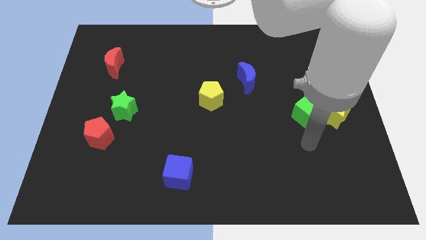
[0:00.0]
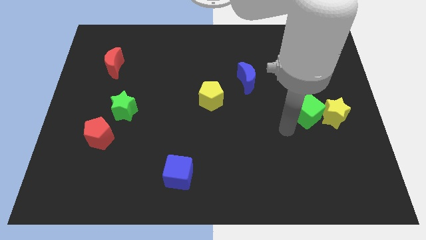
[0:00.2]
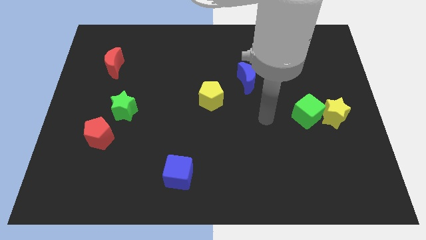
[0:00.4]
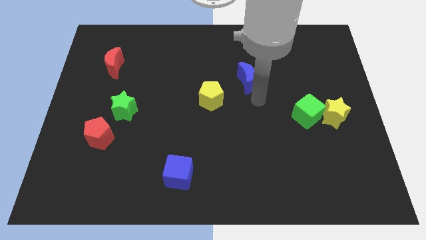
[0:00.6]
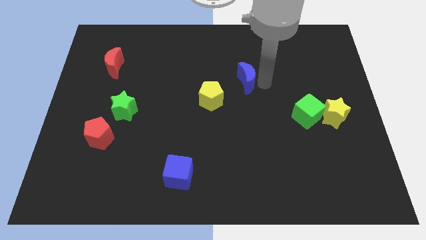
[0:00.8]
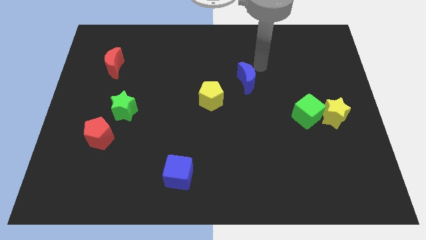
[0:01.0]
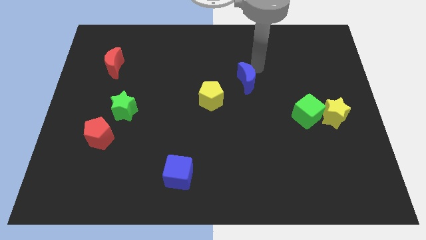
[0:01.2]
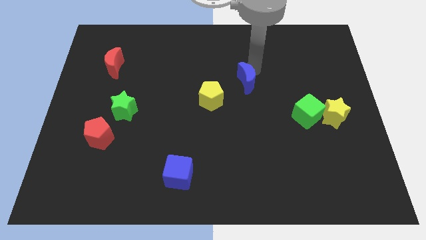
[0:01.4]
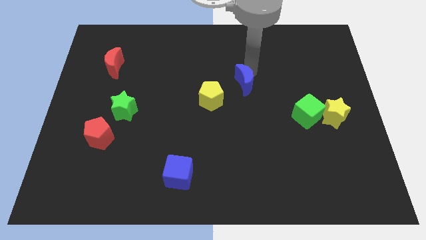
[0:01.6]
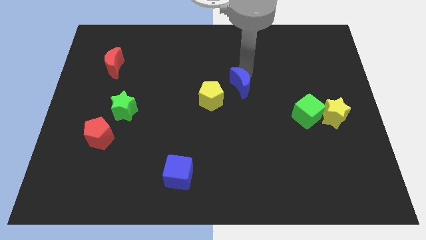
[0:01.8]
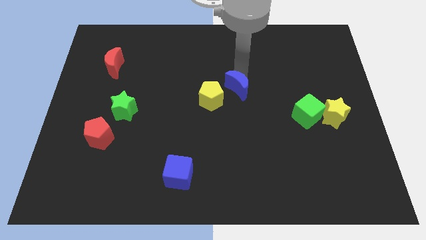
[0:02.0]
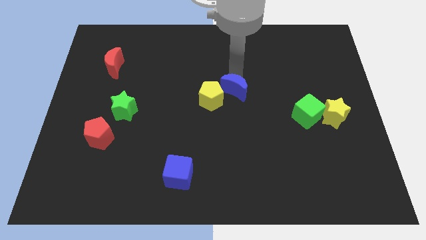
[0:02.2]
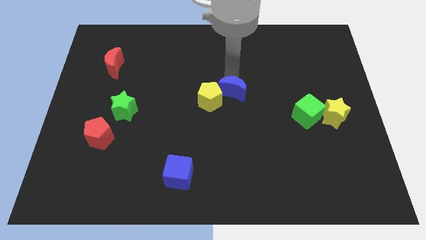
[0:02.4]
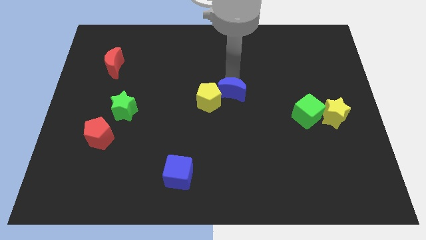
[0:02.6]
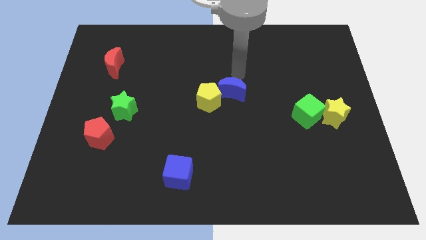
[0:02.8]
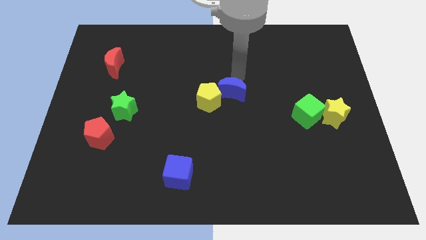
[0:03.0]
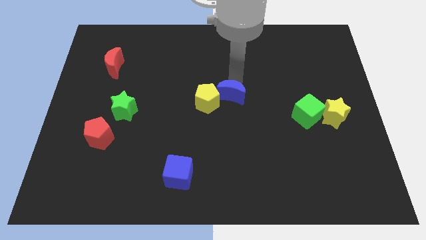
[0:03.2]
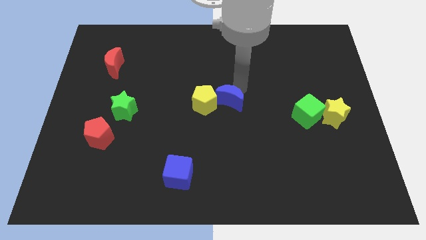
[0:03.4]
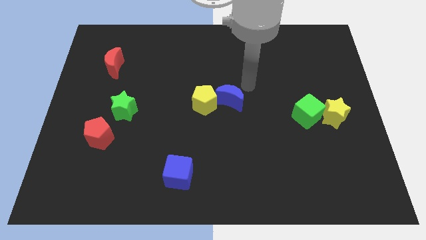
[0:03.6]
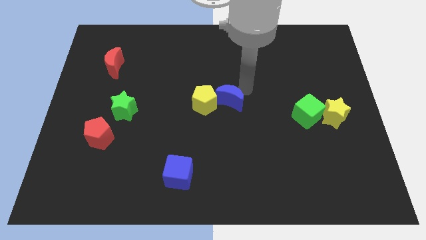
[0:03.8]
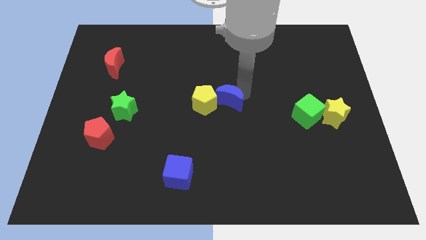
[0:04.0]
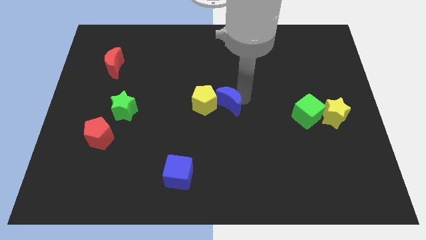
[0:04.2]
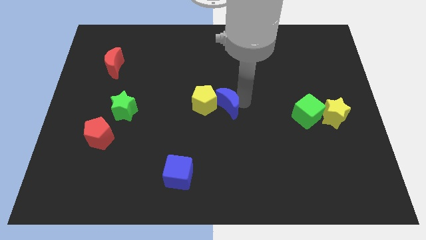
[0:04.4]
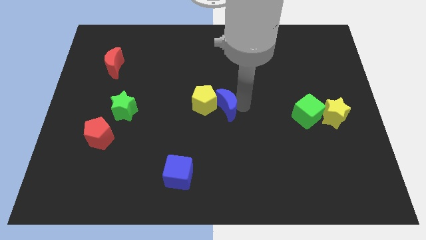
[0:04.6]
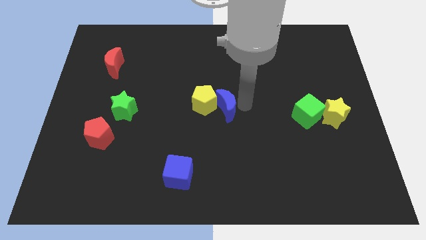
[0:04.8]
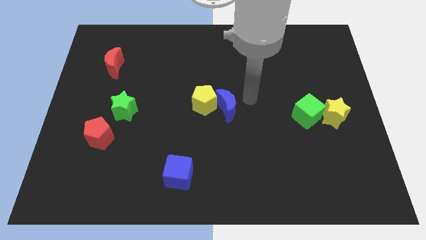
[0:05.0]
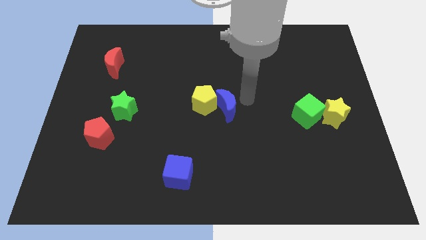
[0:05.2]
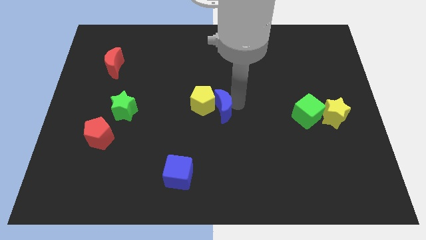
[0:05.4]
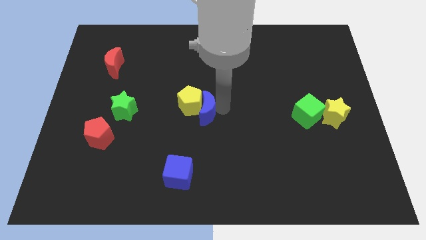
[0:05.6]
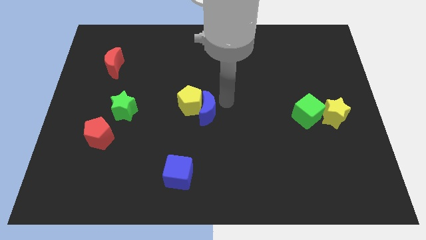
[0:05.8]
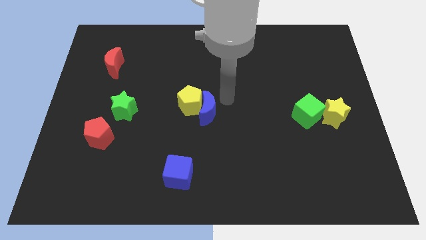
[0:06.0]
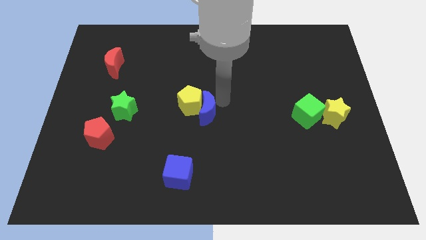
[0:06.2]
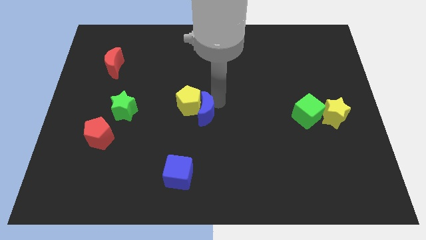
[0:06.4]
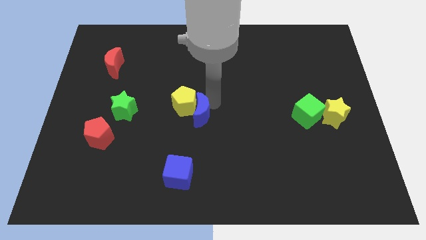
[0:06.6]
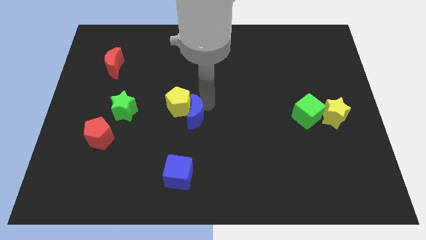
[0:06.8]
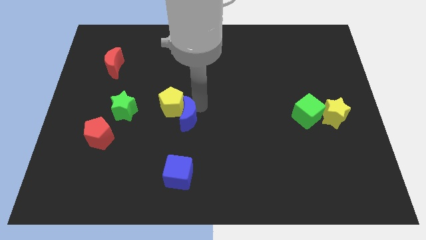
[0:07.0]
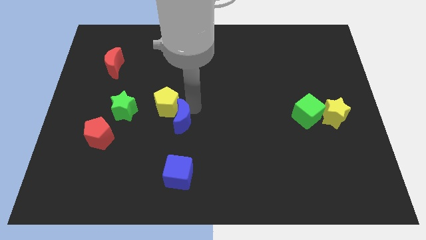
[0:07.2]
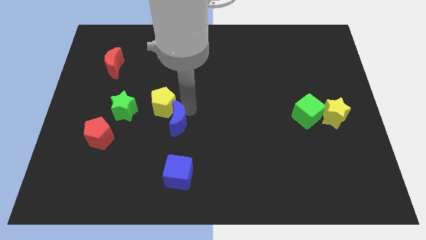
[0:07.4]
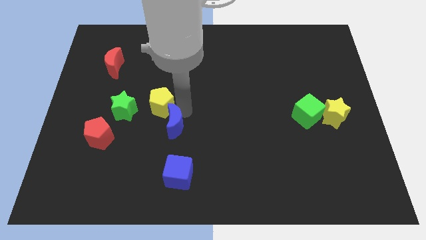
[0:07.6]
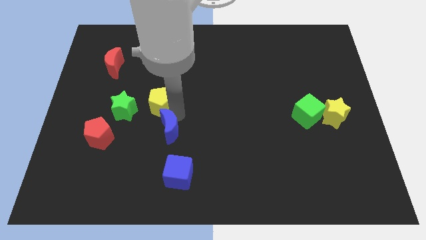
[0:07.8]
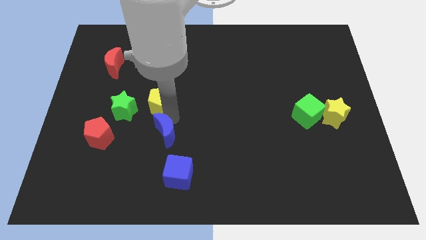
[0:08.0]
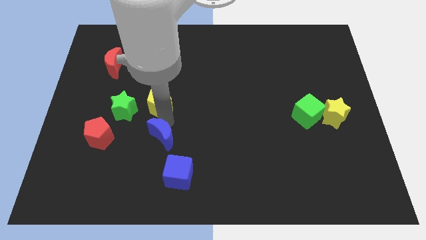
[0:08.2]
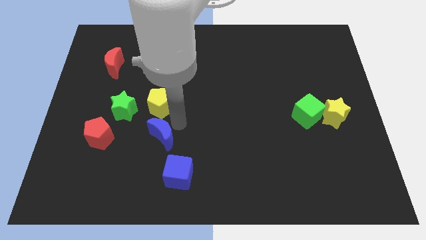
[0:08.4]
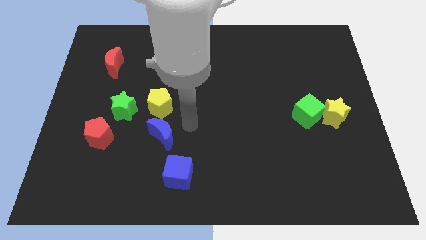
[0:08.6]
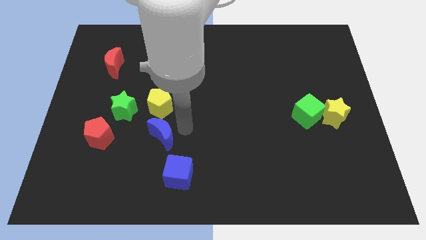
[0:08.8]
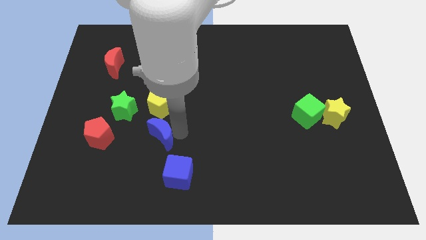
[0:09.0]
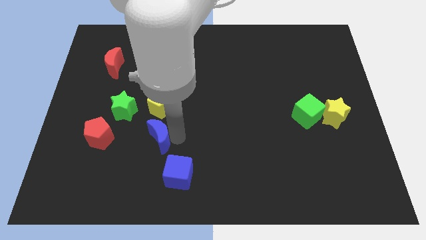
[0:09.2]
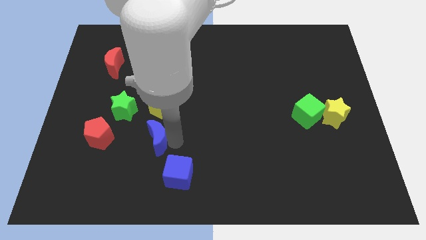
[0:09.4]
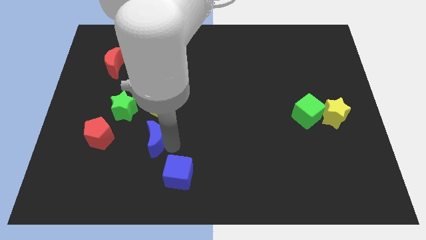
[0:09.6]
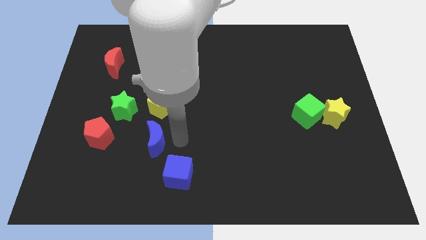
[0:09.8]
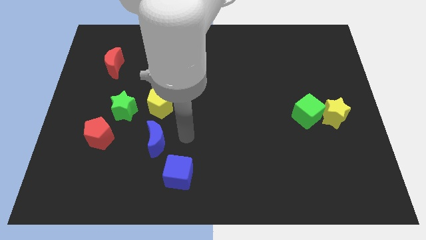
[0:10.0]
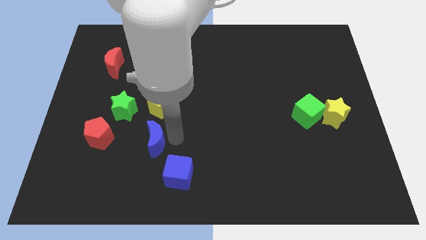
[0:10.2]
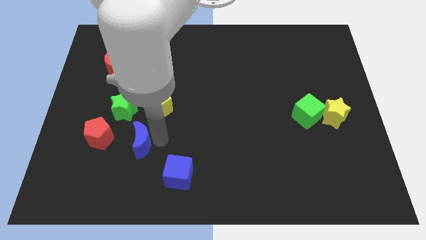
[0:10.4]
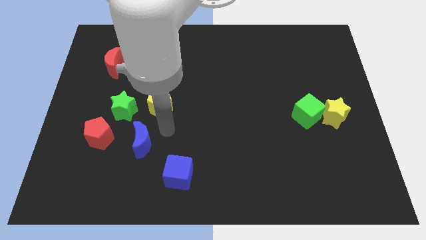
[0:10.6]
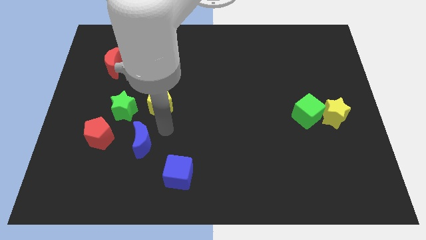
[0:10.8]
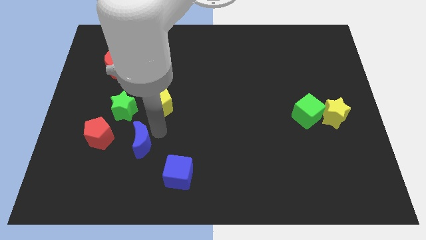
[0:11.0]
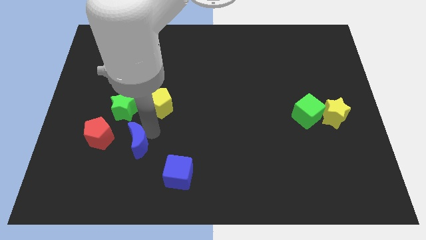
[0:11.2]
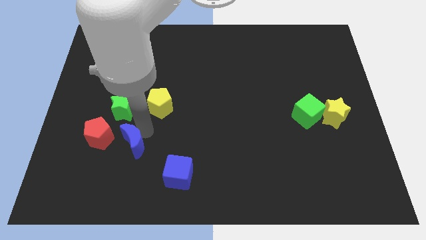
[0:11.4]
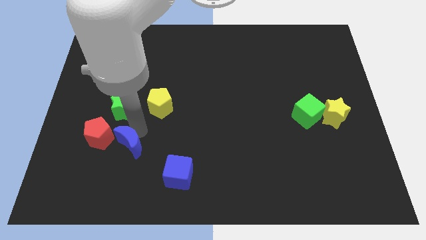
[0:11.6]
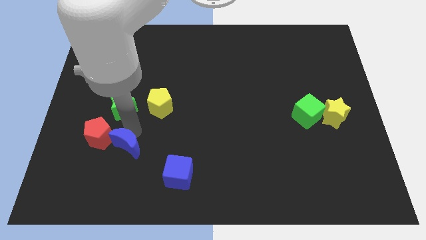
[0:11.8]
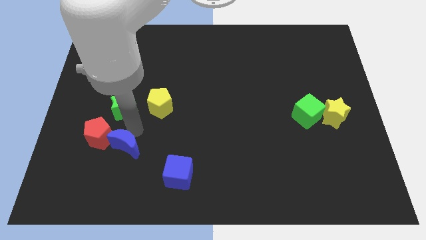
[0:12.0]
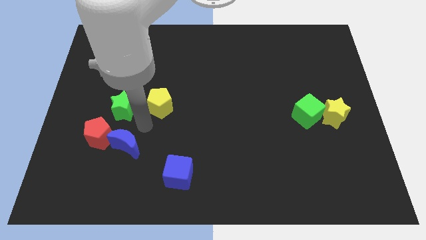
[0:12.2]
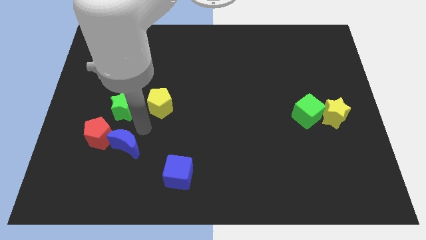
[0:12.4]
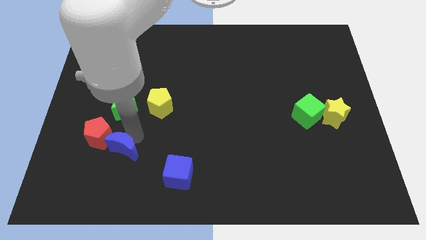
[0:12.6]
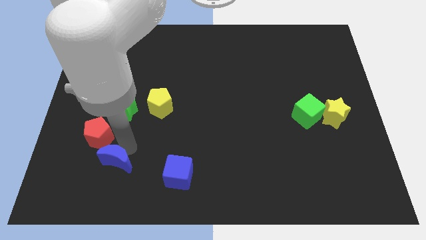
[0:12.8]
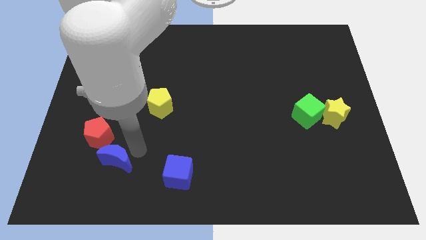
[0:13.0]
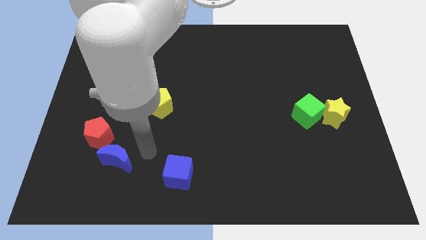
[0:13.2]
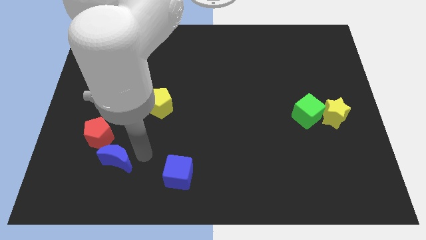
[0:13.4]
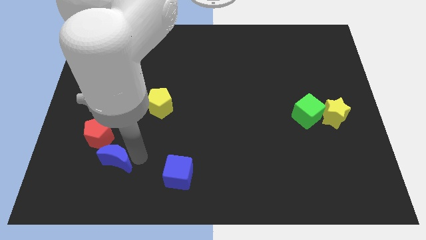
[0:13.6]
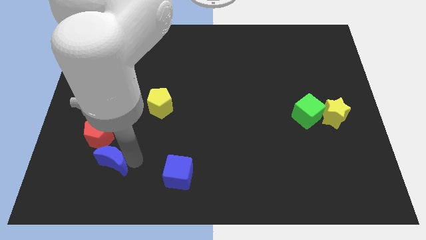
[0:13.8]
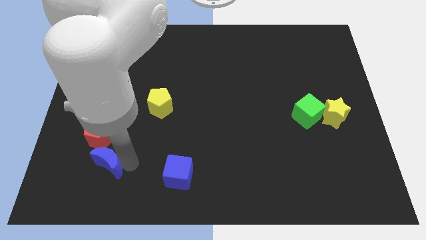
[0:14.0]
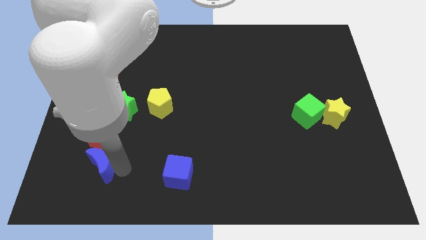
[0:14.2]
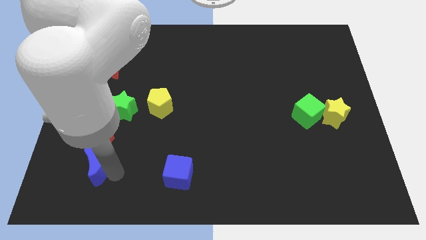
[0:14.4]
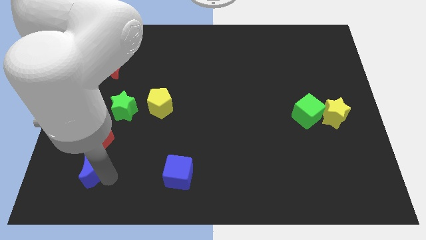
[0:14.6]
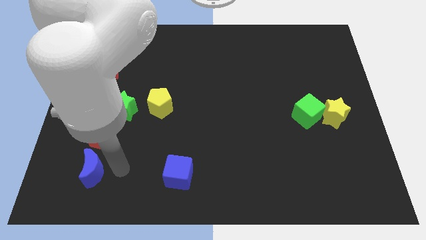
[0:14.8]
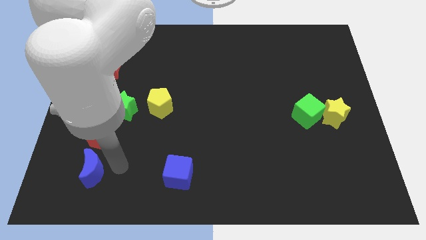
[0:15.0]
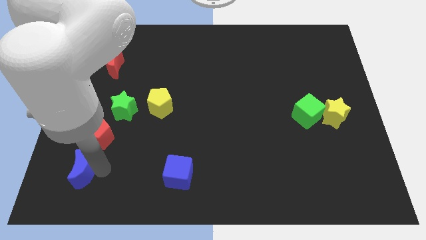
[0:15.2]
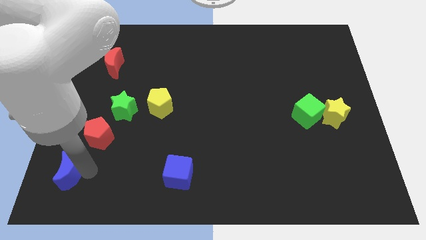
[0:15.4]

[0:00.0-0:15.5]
move the blue moon to the bottom left of the board
